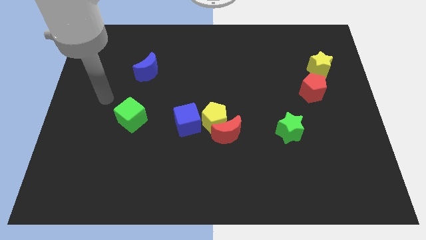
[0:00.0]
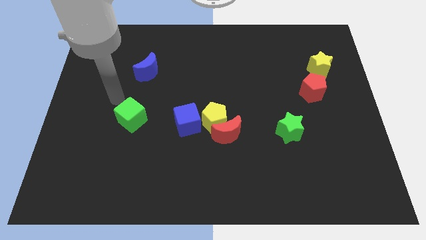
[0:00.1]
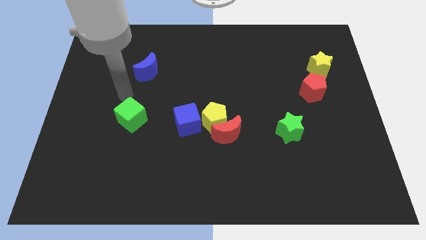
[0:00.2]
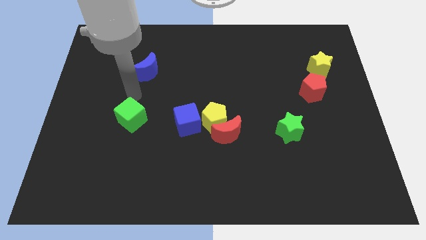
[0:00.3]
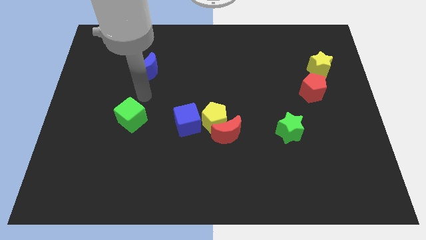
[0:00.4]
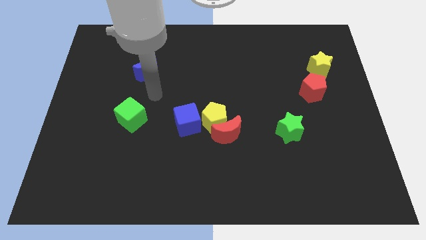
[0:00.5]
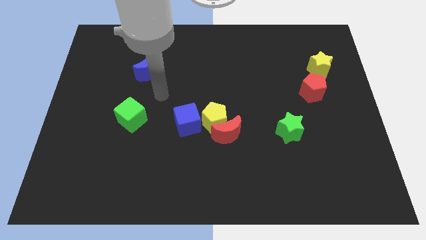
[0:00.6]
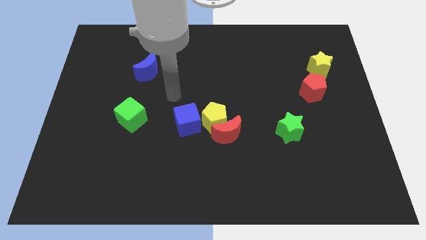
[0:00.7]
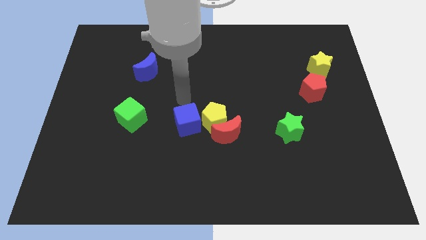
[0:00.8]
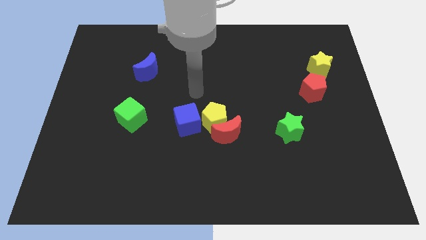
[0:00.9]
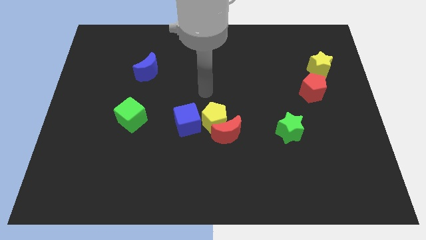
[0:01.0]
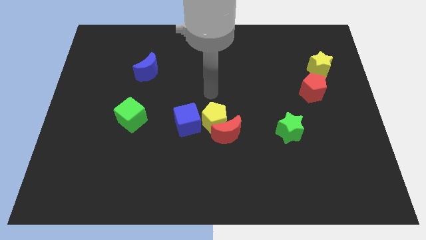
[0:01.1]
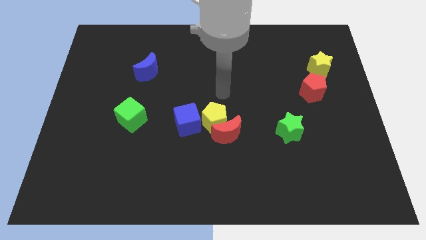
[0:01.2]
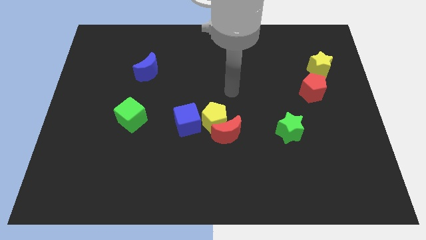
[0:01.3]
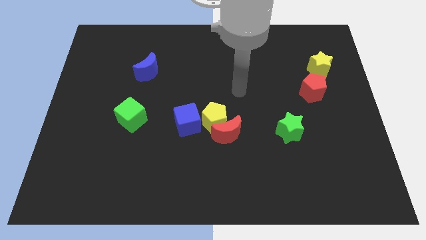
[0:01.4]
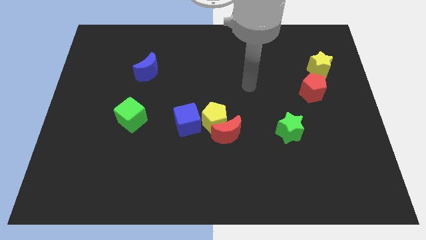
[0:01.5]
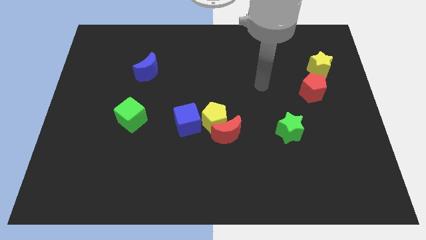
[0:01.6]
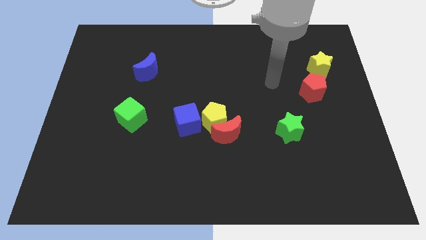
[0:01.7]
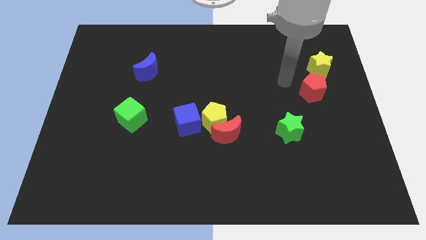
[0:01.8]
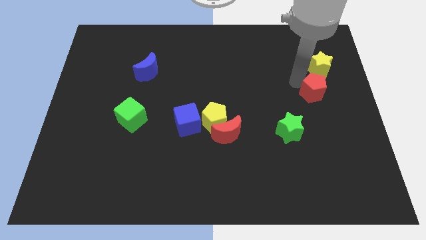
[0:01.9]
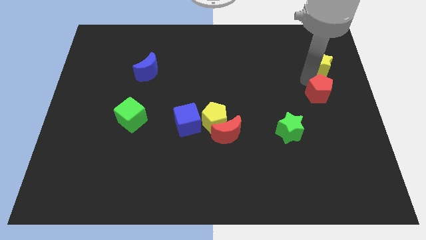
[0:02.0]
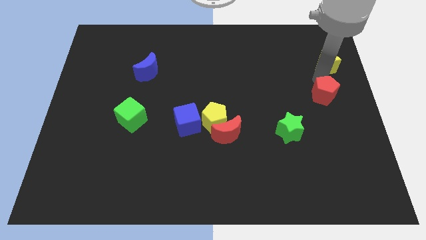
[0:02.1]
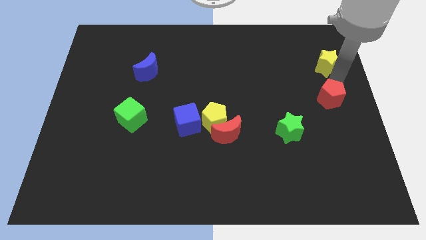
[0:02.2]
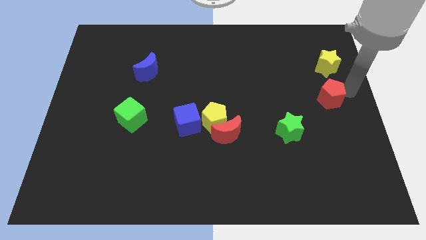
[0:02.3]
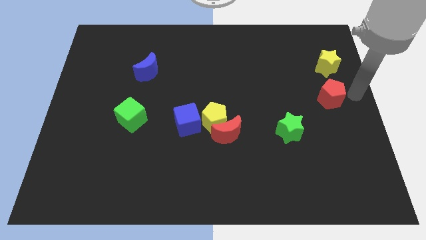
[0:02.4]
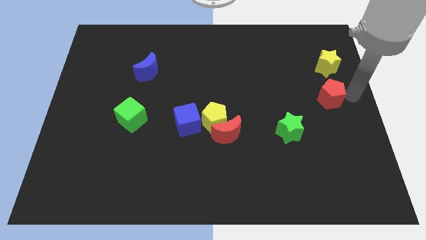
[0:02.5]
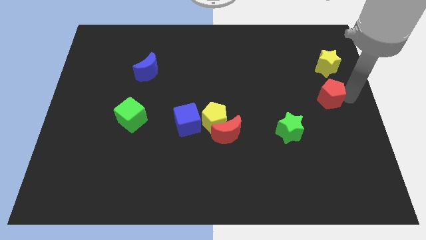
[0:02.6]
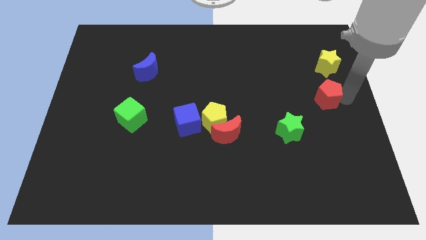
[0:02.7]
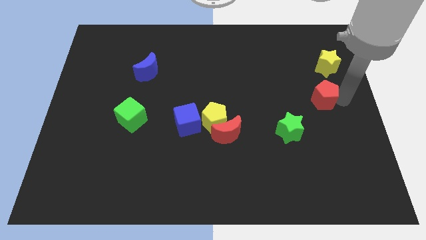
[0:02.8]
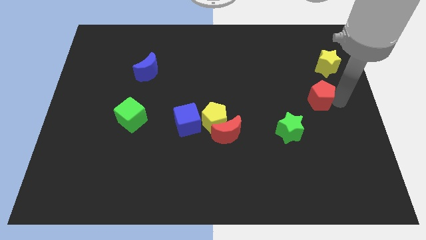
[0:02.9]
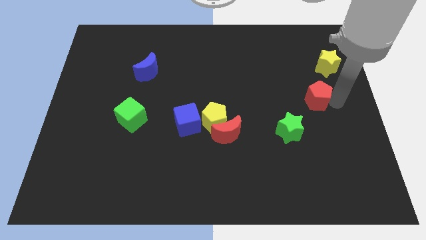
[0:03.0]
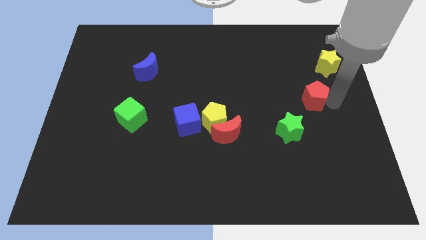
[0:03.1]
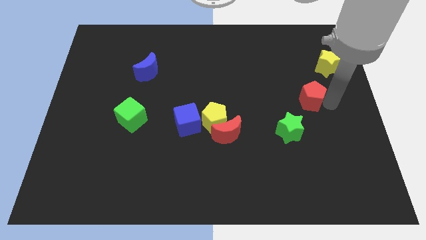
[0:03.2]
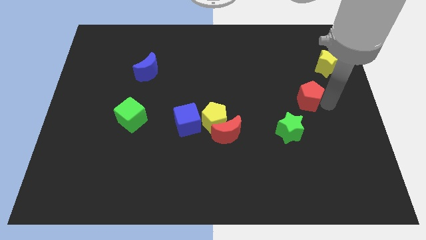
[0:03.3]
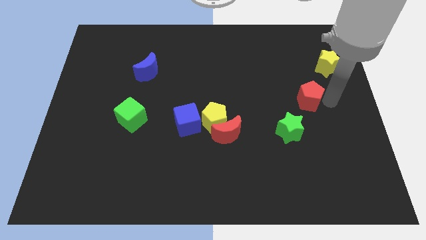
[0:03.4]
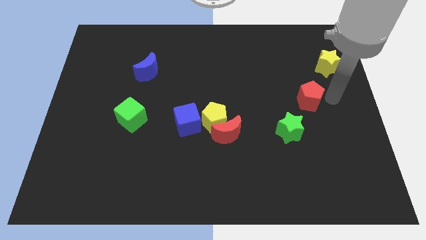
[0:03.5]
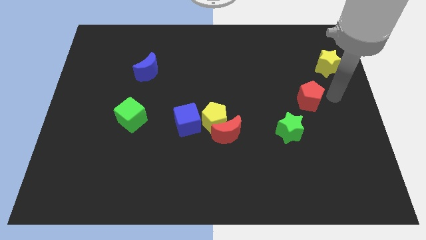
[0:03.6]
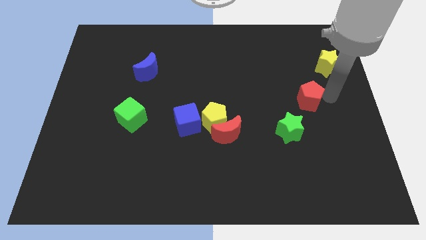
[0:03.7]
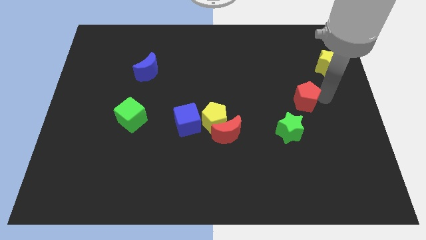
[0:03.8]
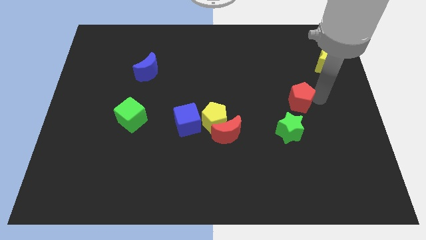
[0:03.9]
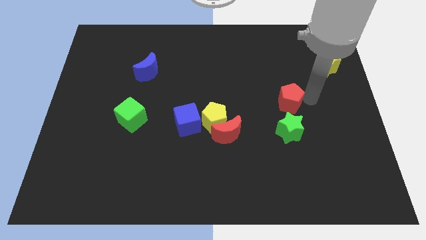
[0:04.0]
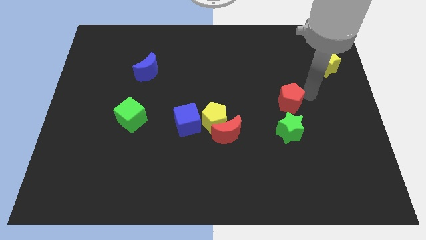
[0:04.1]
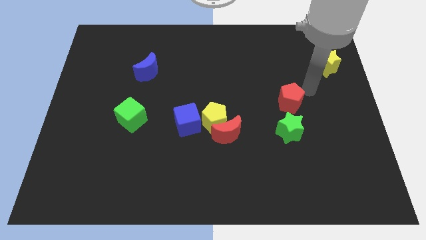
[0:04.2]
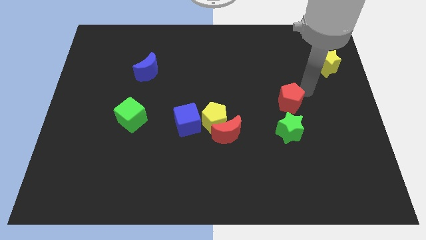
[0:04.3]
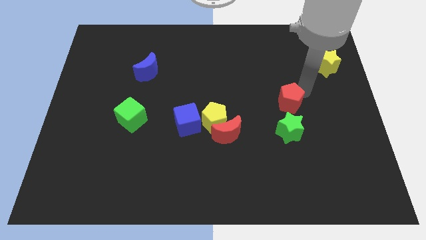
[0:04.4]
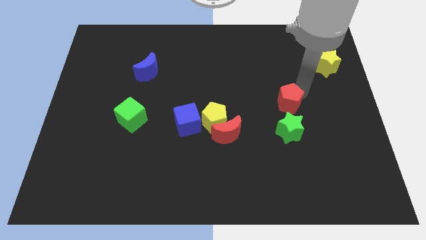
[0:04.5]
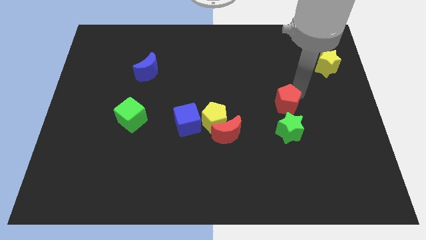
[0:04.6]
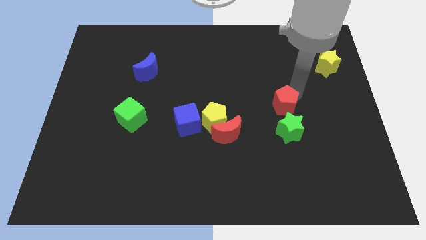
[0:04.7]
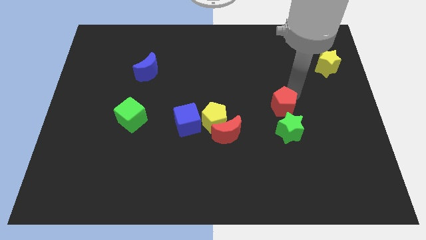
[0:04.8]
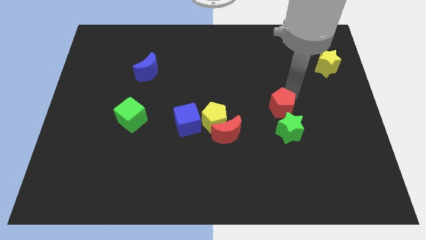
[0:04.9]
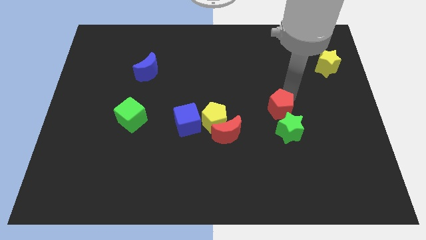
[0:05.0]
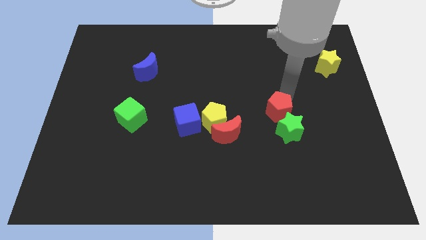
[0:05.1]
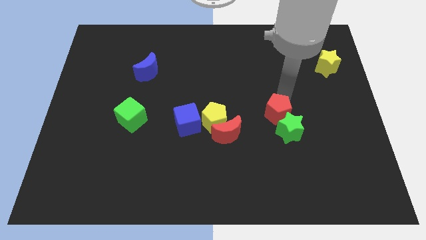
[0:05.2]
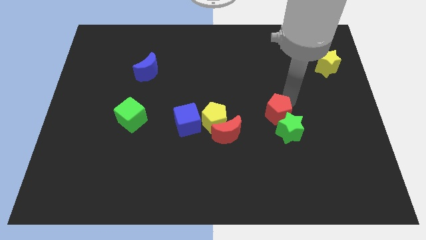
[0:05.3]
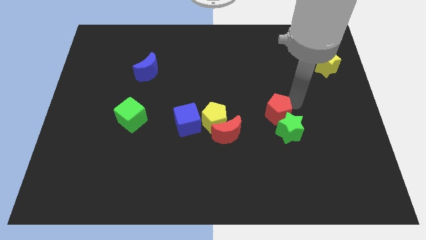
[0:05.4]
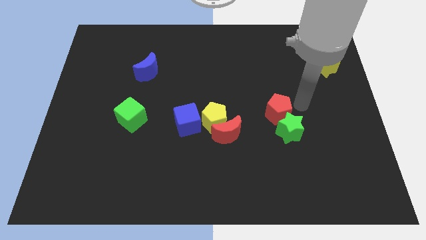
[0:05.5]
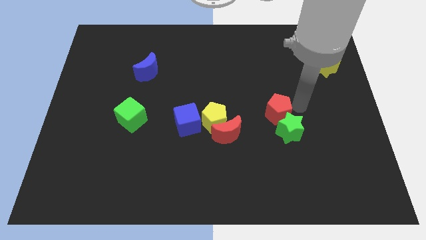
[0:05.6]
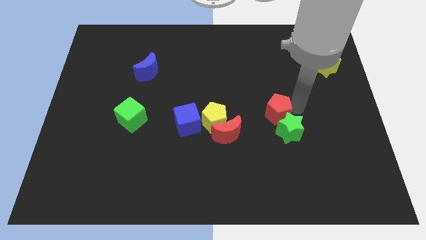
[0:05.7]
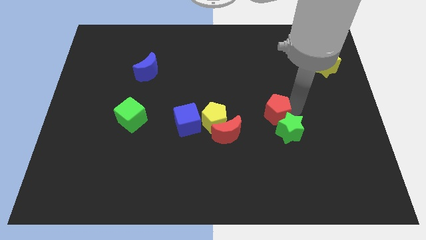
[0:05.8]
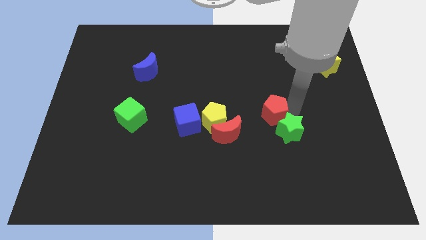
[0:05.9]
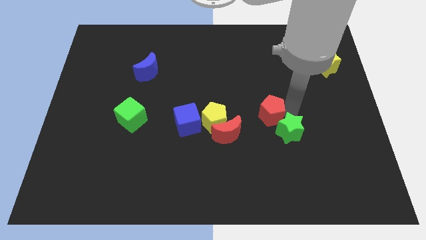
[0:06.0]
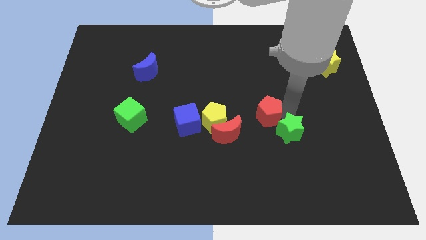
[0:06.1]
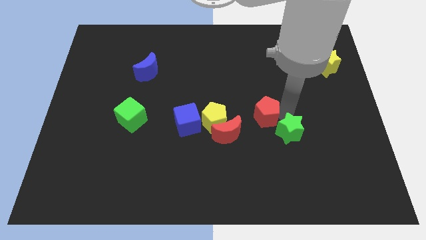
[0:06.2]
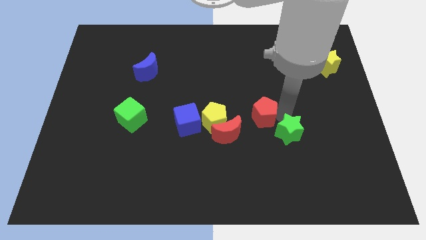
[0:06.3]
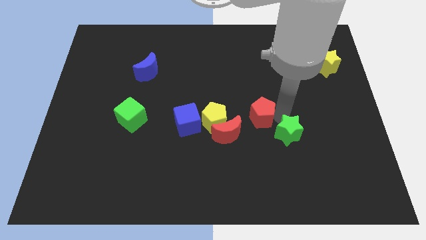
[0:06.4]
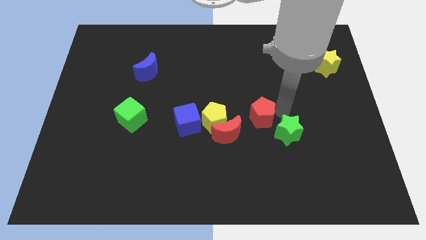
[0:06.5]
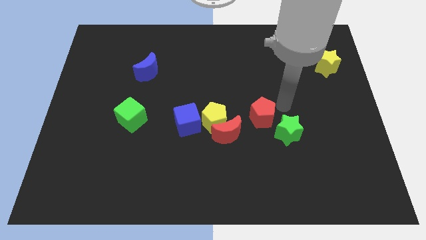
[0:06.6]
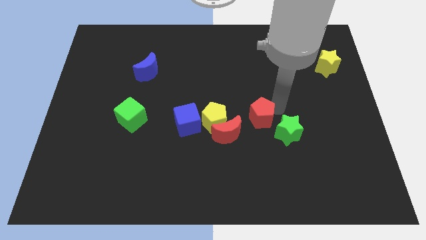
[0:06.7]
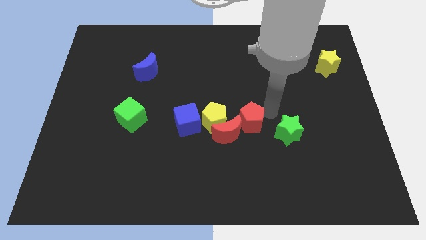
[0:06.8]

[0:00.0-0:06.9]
put the red pentagon close to the red moon
